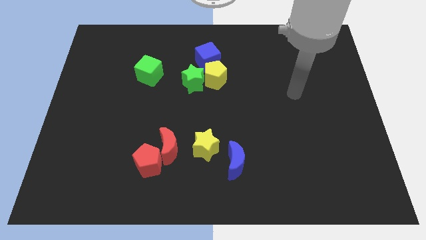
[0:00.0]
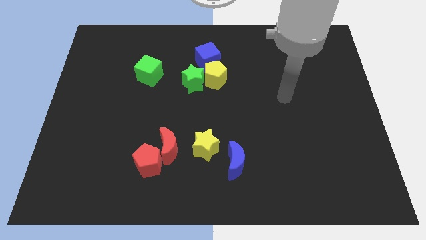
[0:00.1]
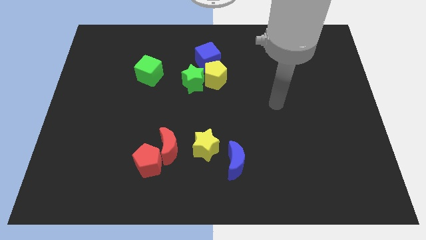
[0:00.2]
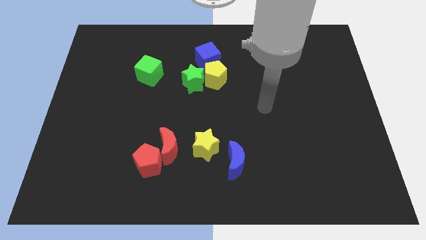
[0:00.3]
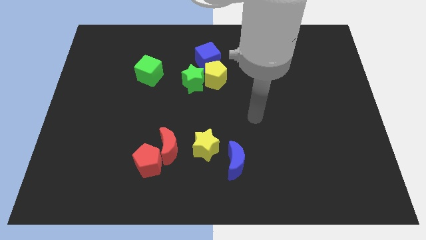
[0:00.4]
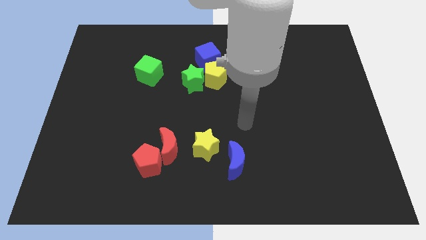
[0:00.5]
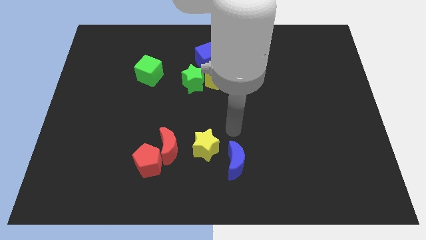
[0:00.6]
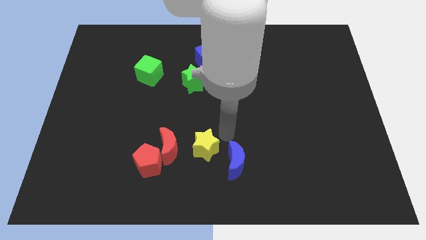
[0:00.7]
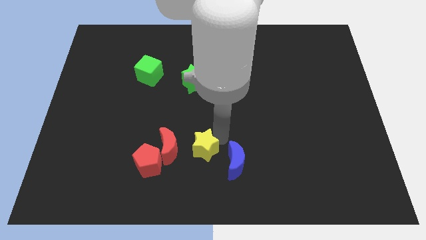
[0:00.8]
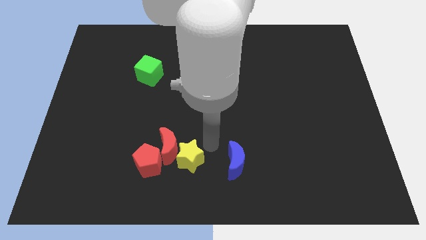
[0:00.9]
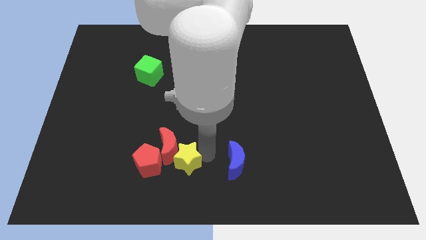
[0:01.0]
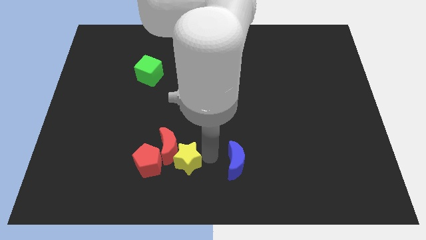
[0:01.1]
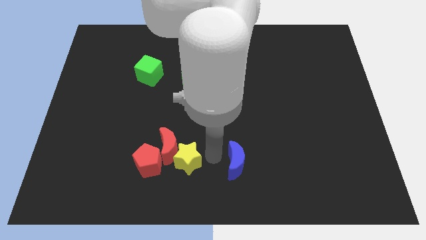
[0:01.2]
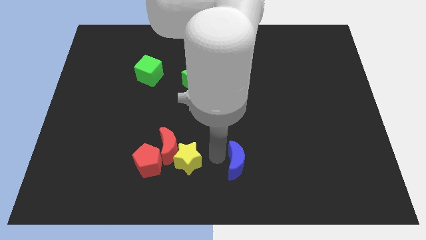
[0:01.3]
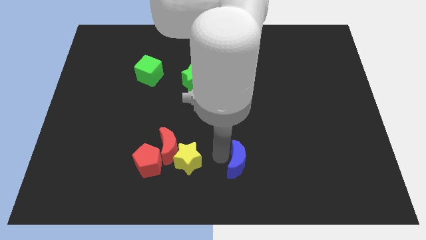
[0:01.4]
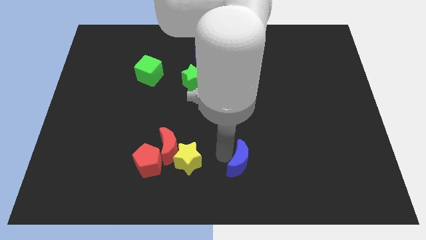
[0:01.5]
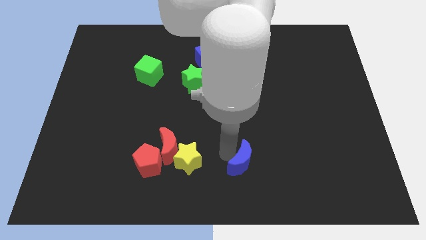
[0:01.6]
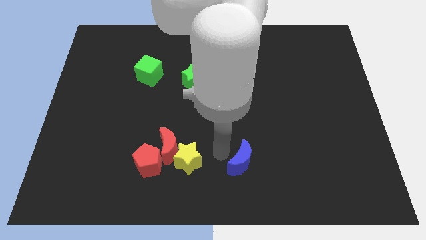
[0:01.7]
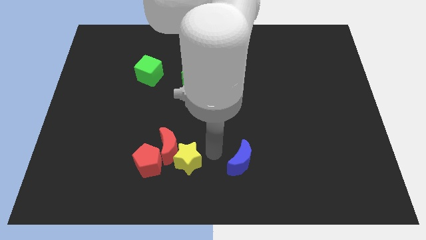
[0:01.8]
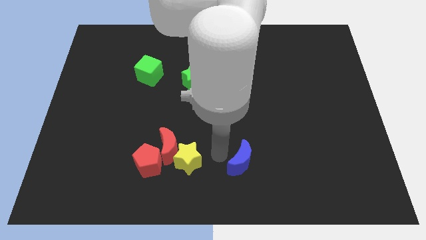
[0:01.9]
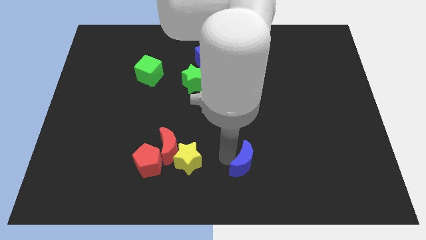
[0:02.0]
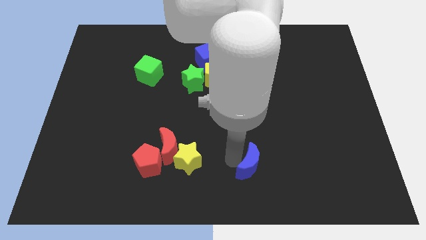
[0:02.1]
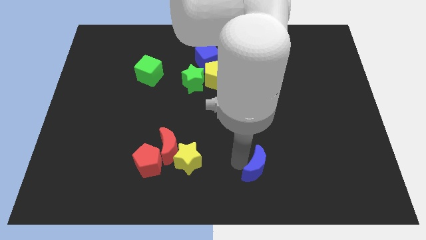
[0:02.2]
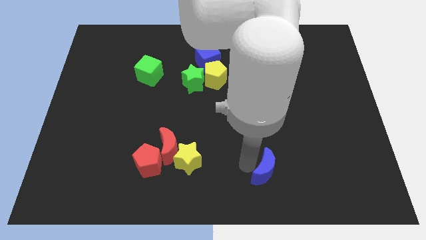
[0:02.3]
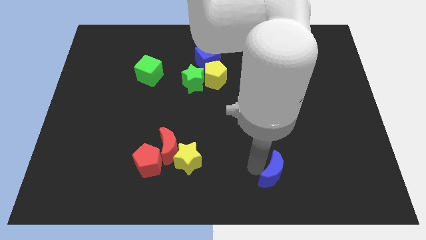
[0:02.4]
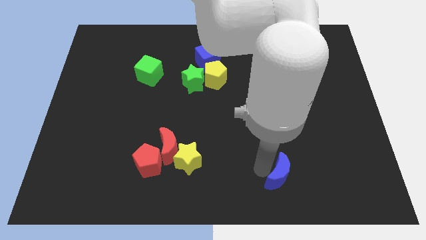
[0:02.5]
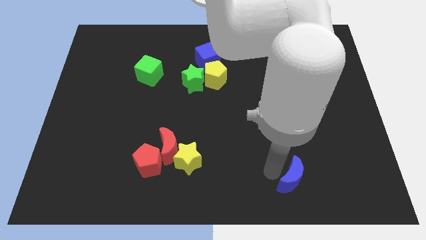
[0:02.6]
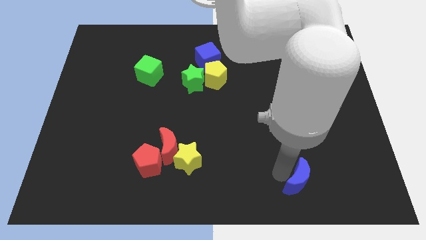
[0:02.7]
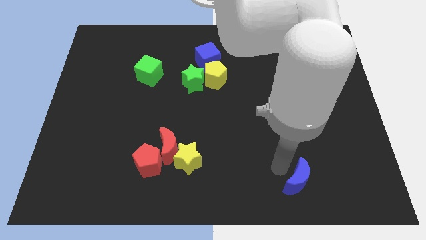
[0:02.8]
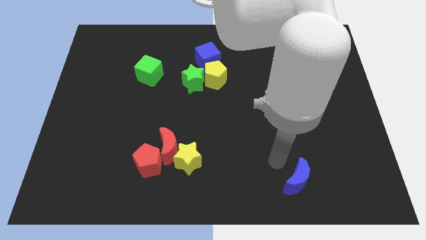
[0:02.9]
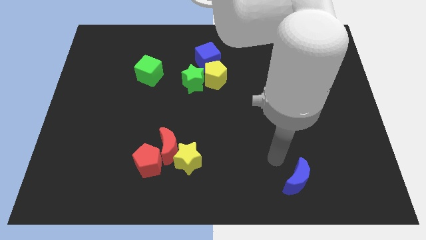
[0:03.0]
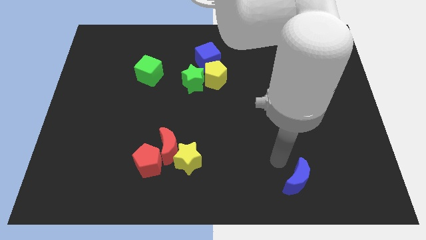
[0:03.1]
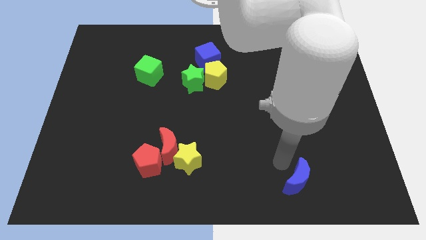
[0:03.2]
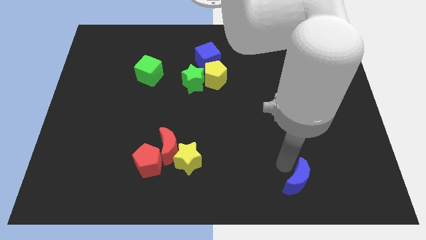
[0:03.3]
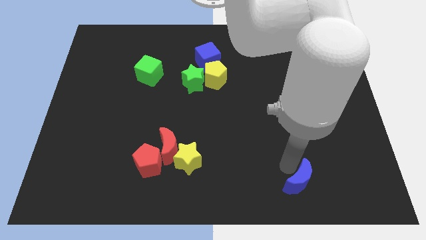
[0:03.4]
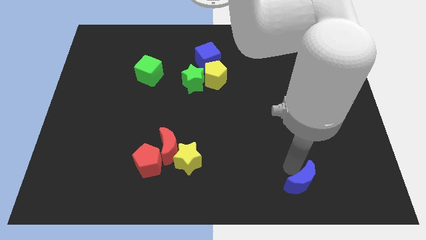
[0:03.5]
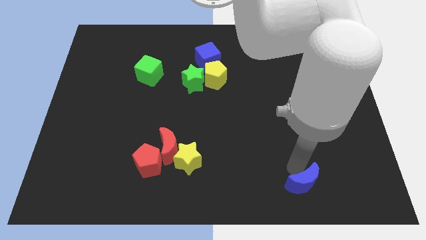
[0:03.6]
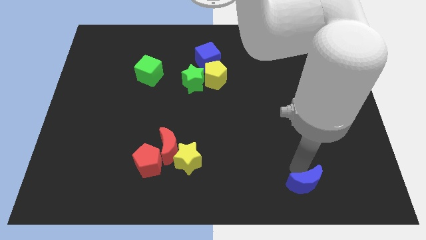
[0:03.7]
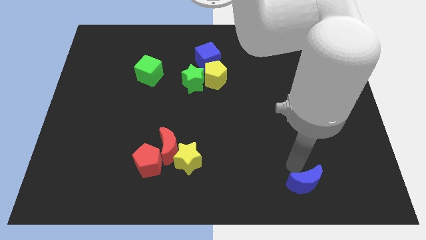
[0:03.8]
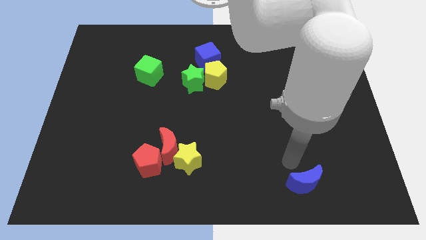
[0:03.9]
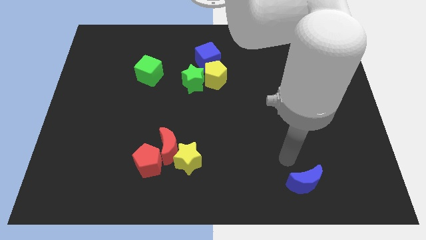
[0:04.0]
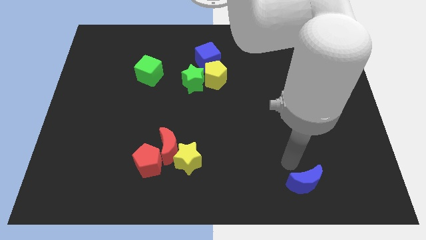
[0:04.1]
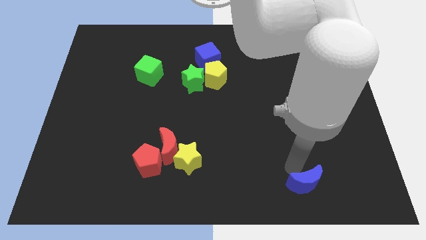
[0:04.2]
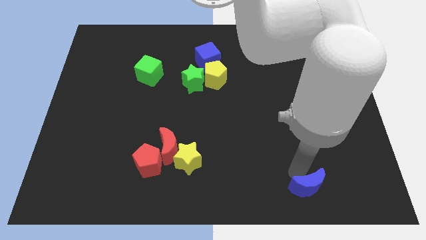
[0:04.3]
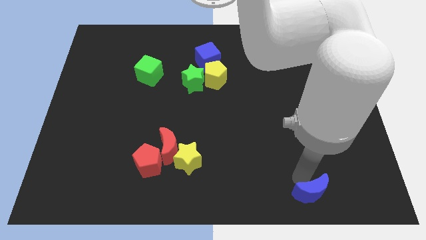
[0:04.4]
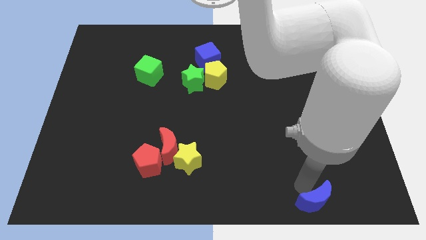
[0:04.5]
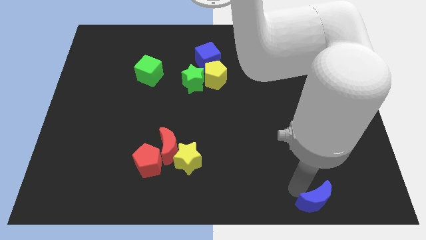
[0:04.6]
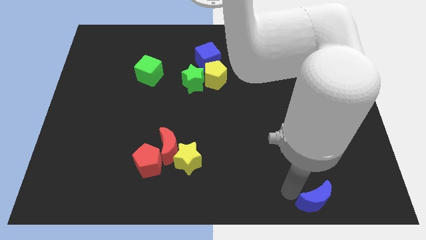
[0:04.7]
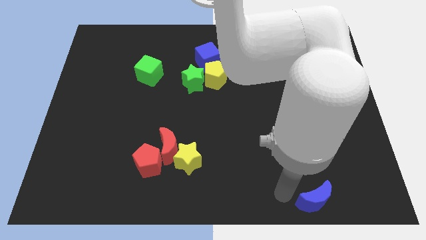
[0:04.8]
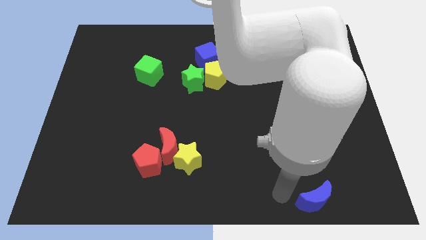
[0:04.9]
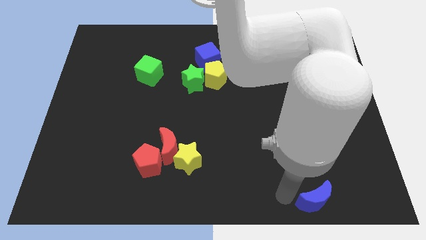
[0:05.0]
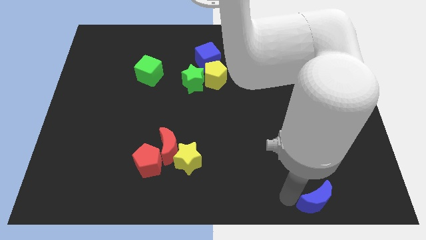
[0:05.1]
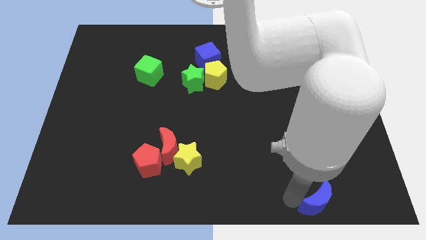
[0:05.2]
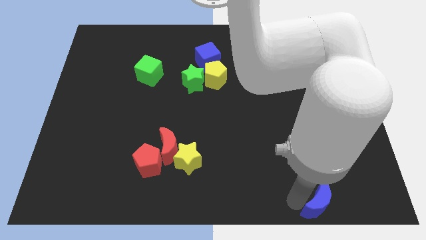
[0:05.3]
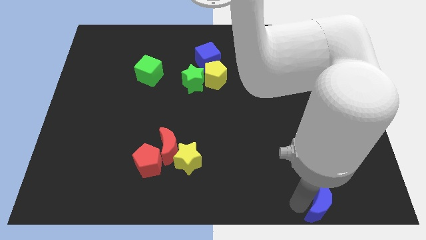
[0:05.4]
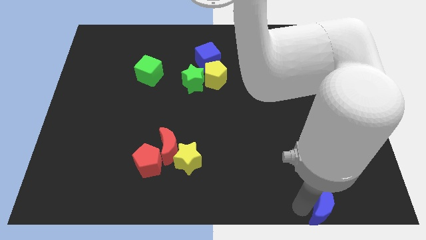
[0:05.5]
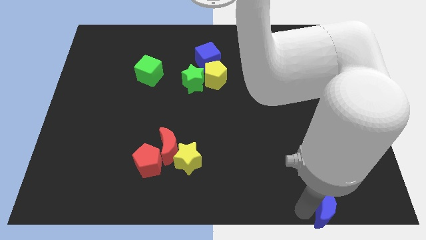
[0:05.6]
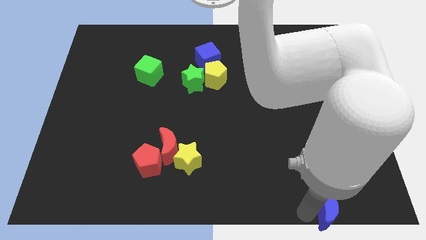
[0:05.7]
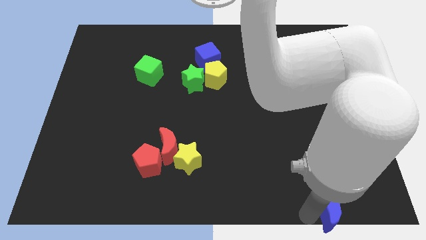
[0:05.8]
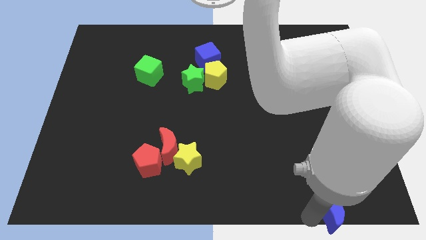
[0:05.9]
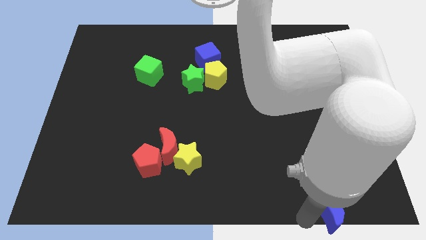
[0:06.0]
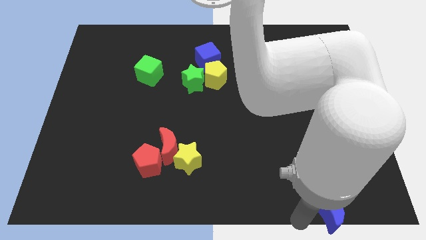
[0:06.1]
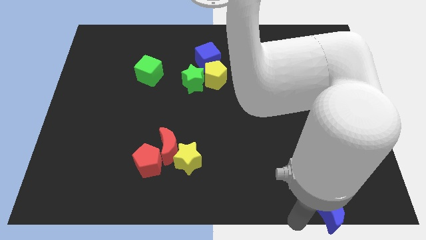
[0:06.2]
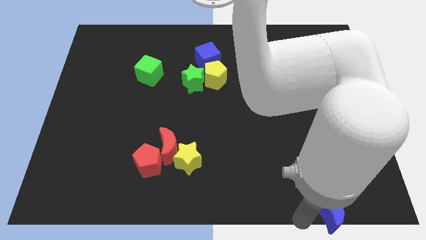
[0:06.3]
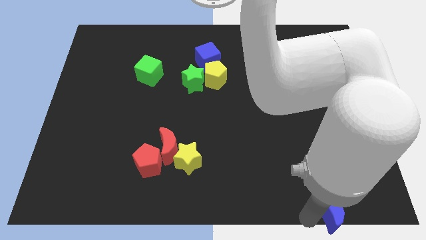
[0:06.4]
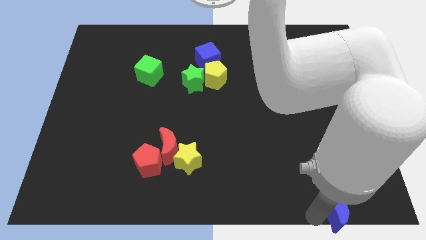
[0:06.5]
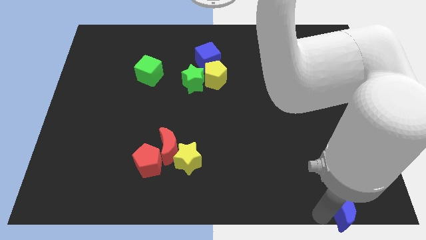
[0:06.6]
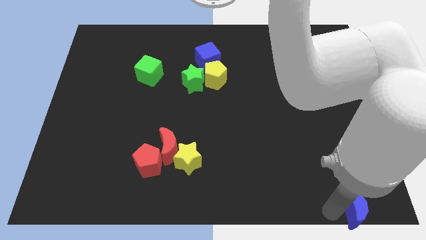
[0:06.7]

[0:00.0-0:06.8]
slide the blue moon to the bottom right corner

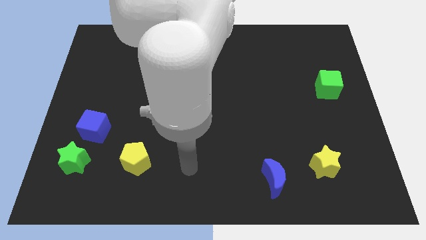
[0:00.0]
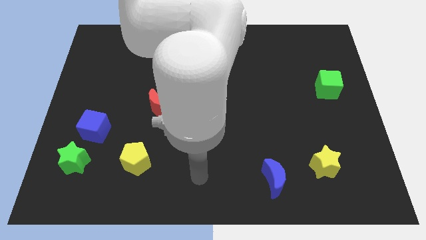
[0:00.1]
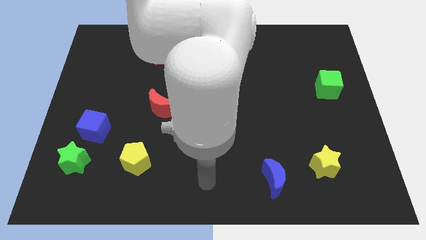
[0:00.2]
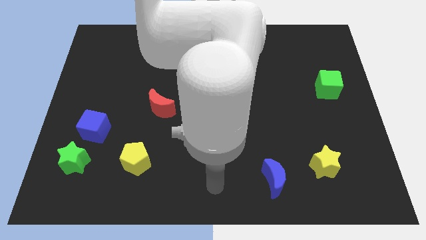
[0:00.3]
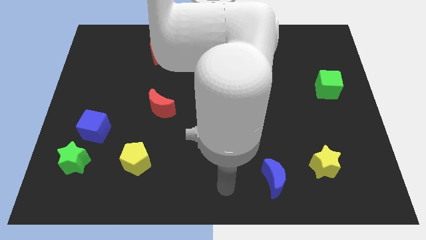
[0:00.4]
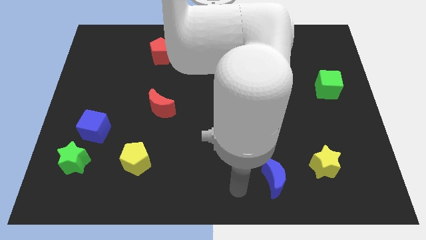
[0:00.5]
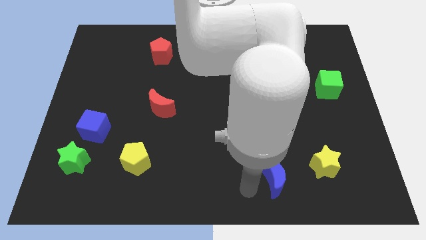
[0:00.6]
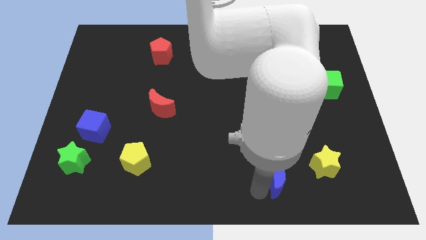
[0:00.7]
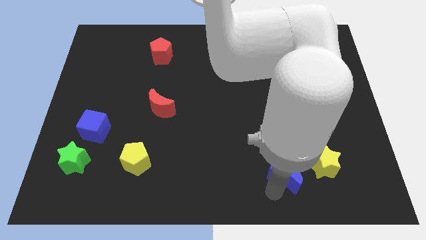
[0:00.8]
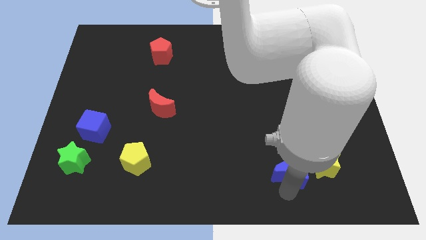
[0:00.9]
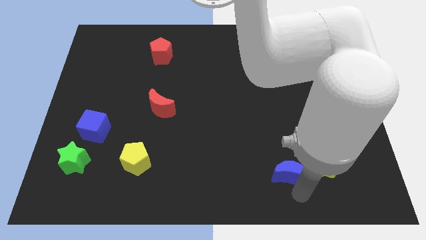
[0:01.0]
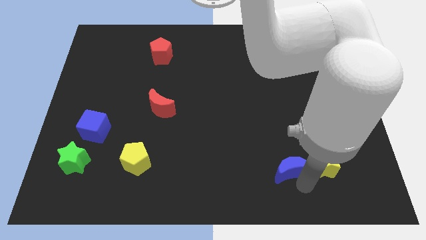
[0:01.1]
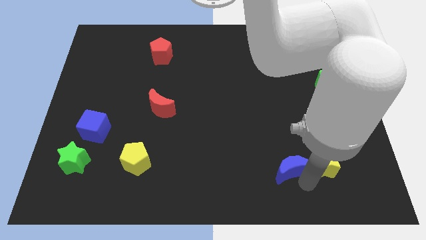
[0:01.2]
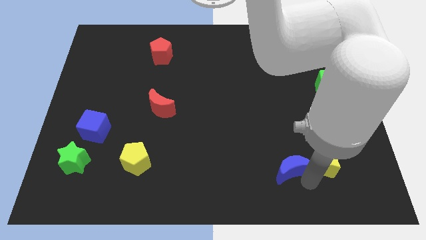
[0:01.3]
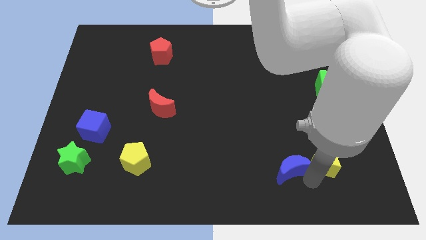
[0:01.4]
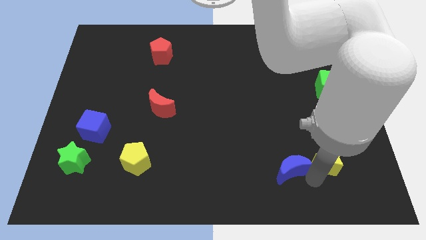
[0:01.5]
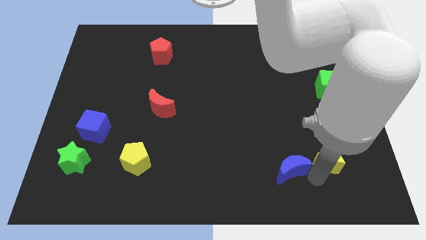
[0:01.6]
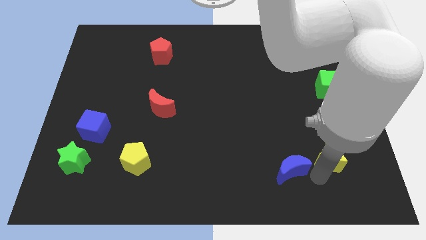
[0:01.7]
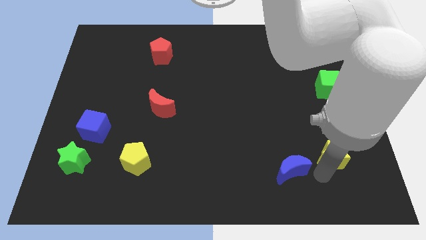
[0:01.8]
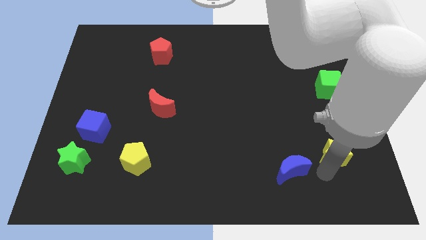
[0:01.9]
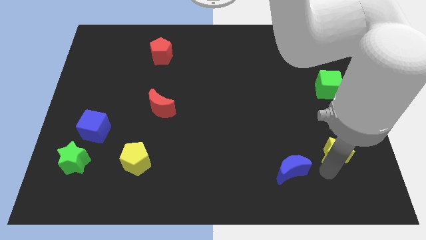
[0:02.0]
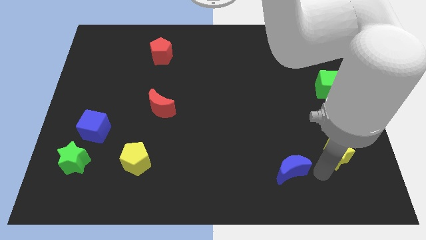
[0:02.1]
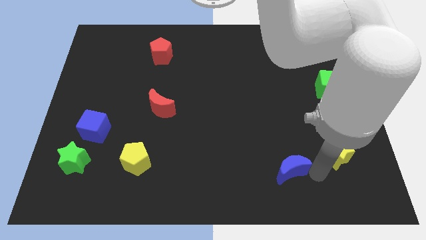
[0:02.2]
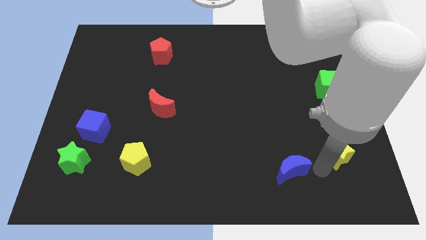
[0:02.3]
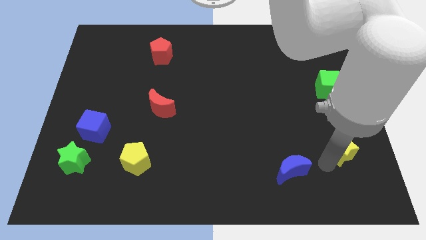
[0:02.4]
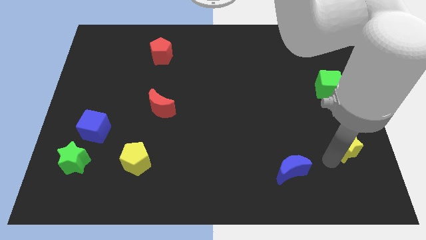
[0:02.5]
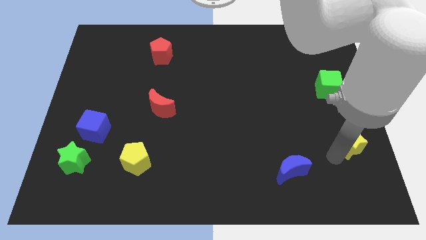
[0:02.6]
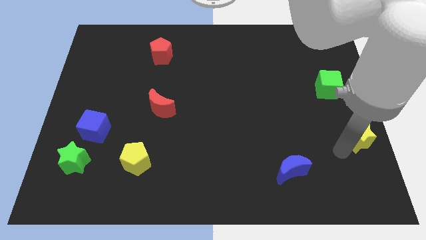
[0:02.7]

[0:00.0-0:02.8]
push the yellow star to the center right
